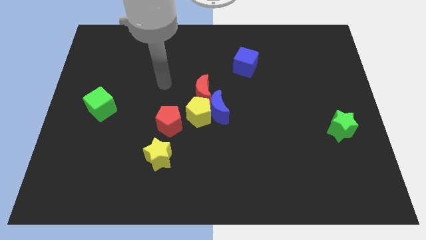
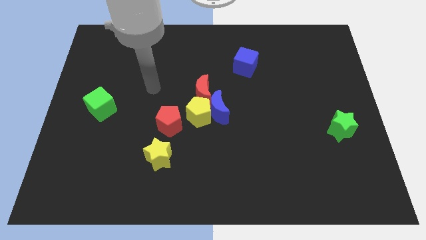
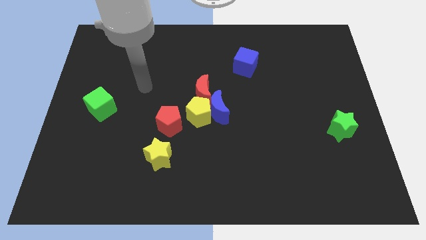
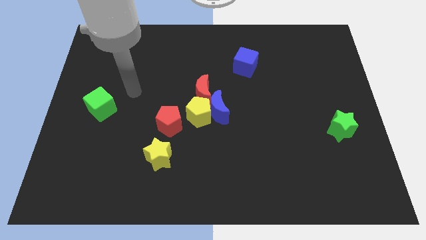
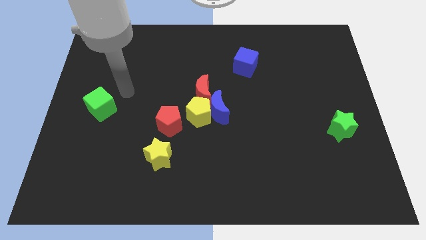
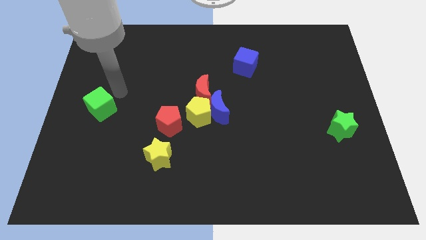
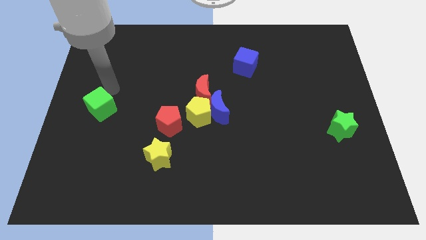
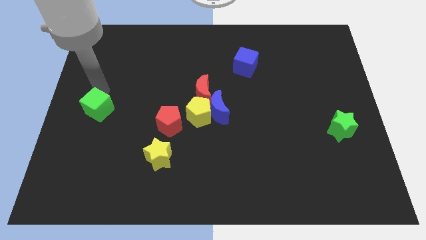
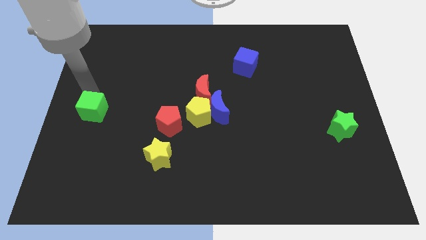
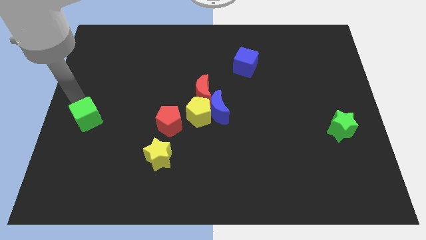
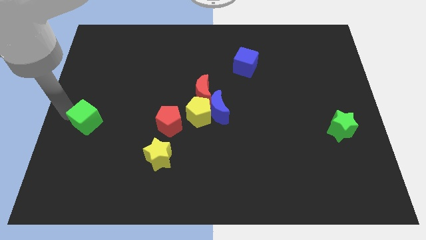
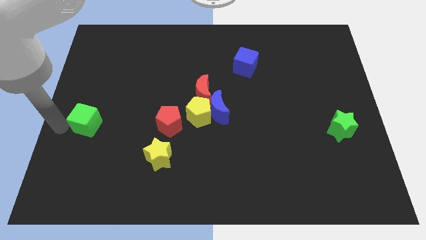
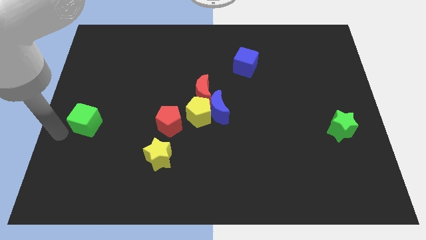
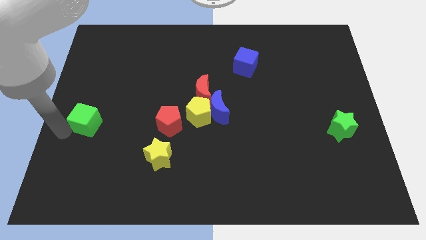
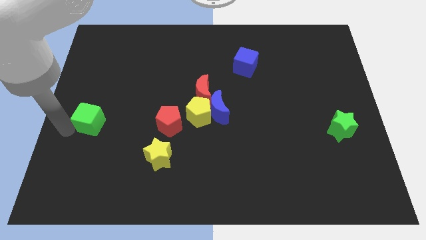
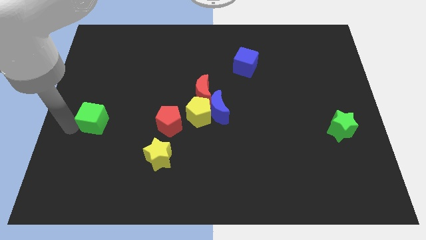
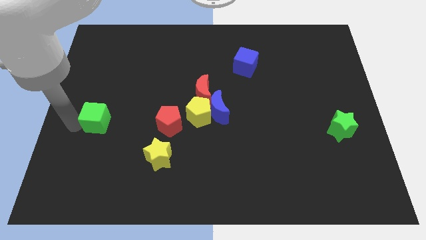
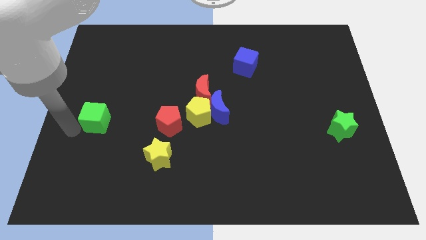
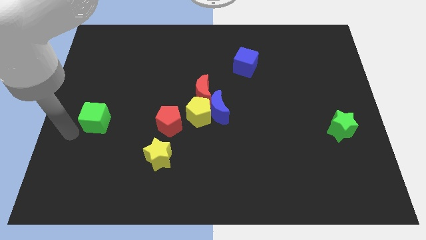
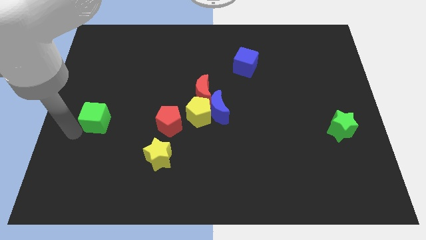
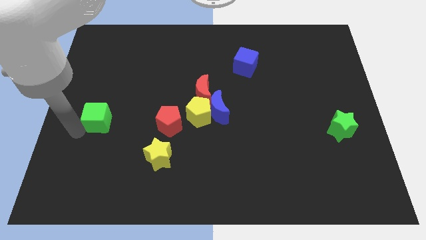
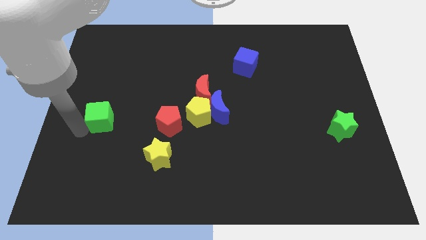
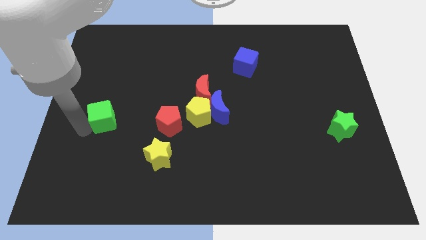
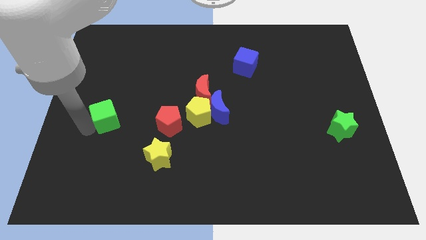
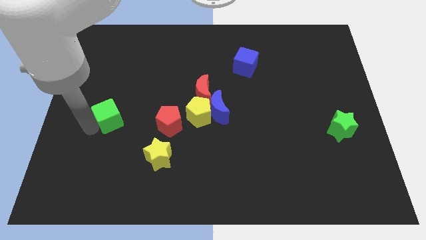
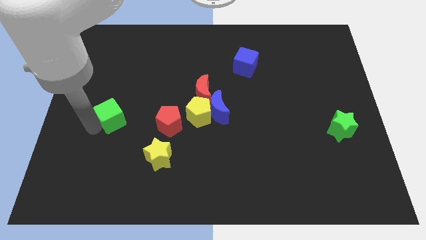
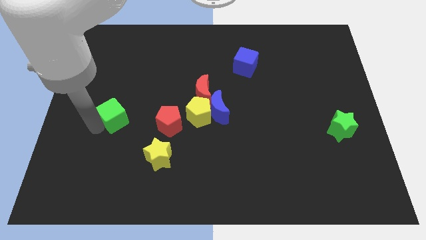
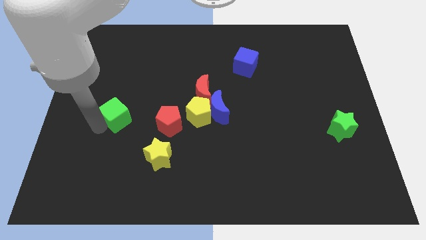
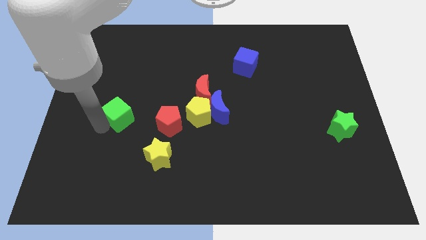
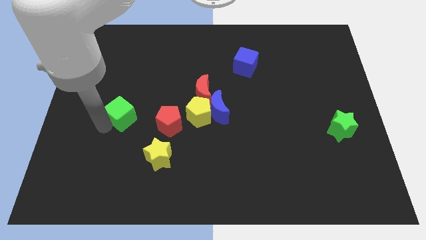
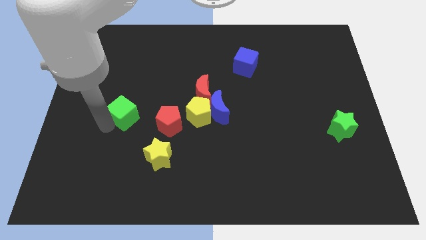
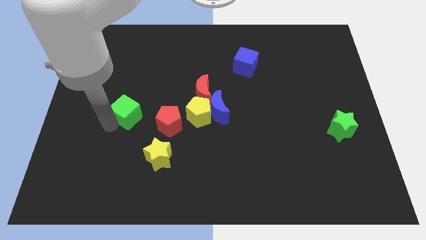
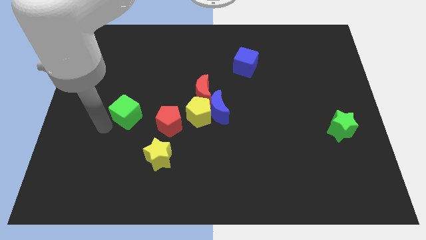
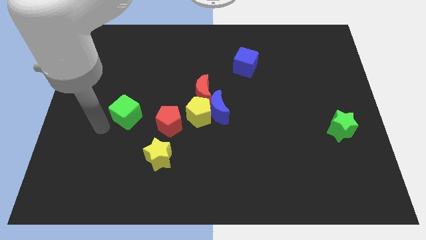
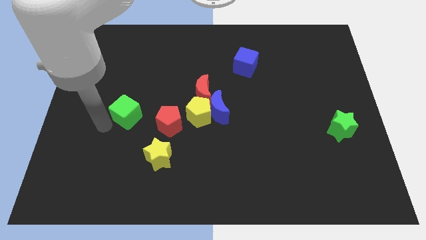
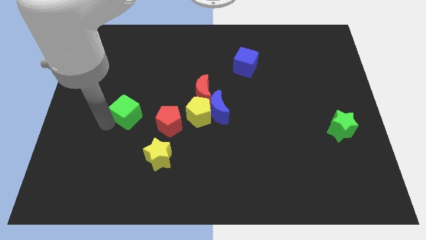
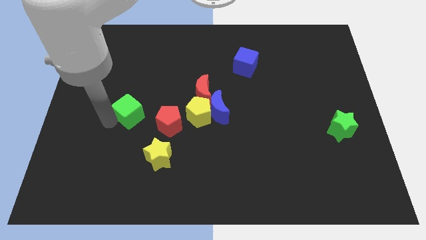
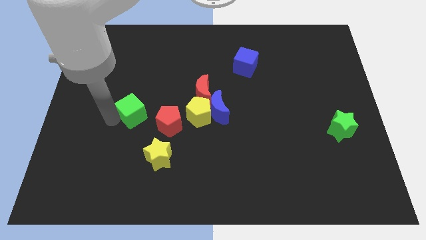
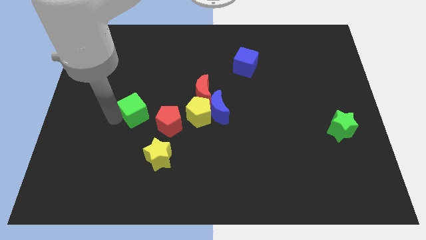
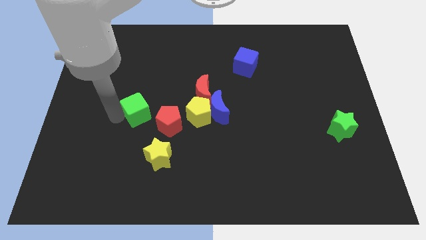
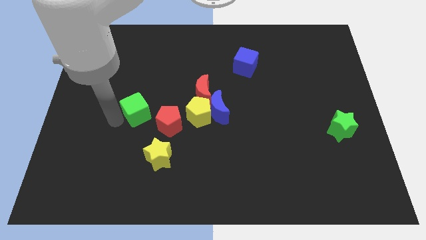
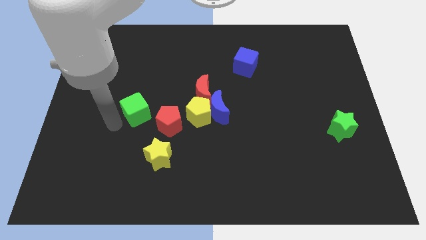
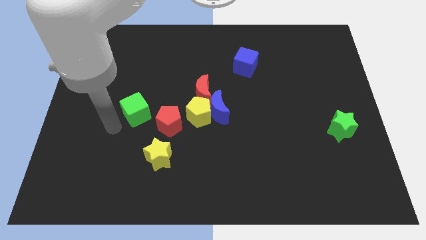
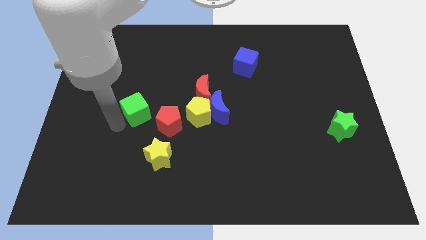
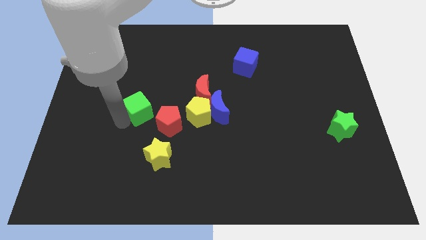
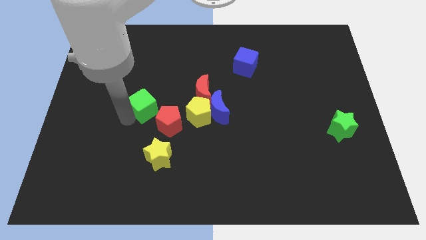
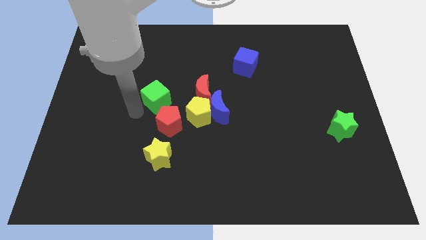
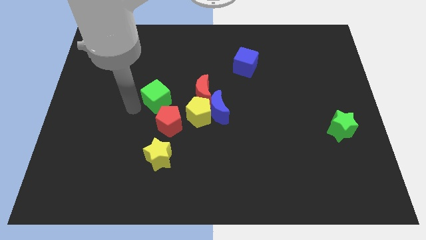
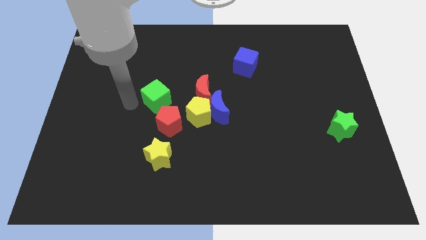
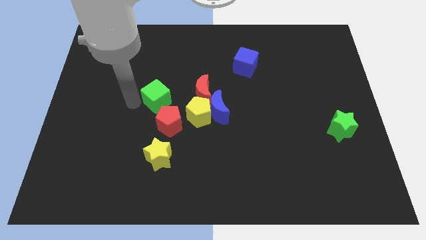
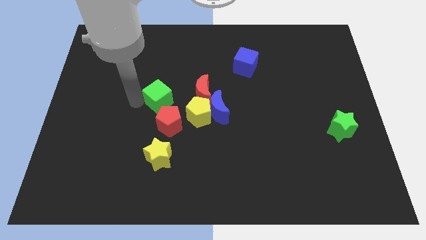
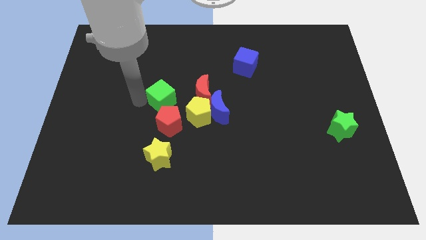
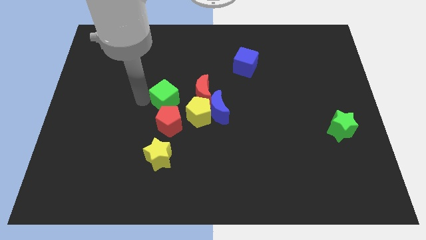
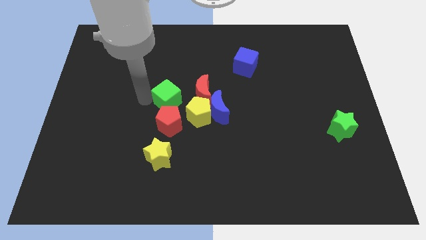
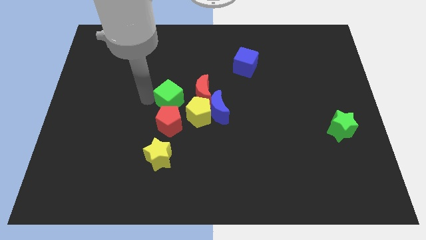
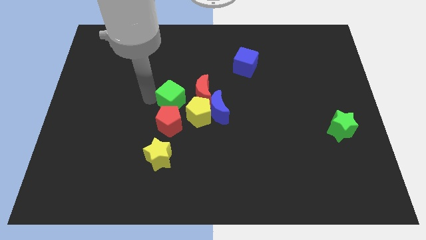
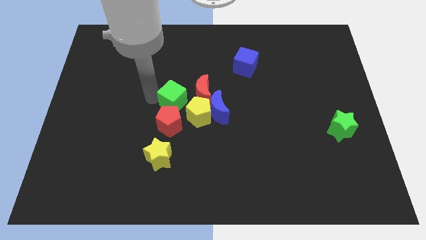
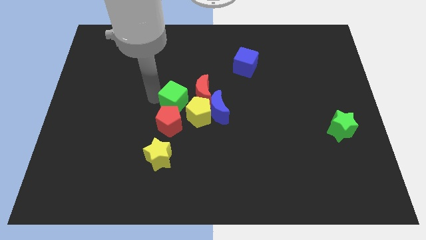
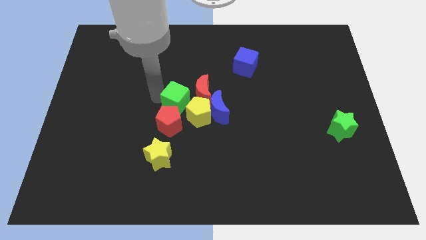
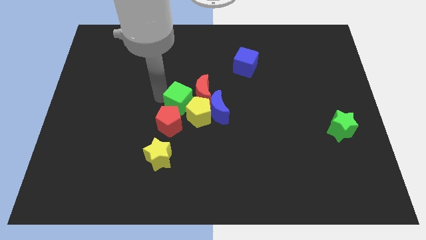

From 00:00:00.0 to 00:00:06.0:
slide the green cube next to the red moon

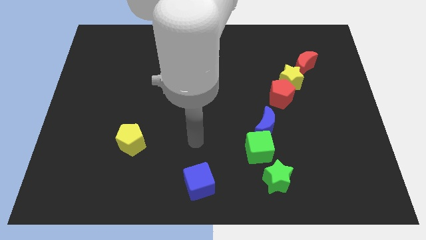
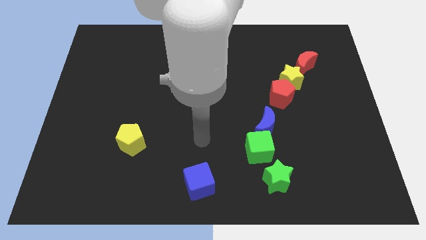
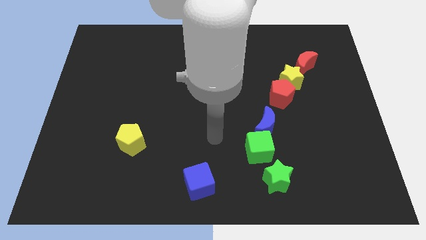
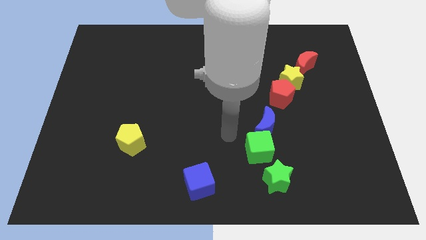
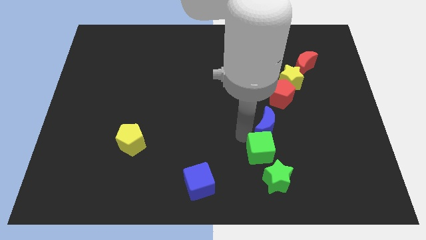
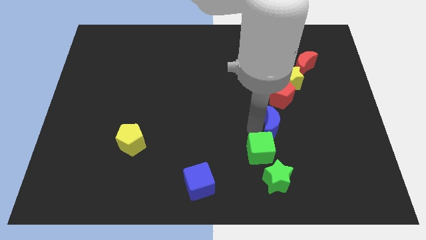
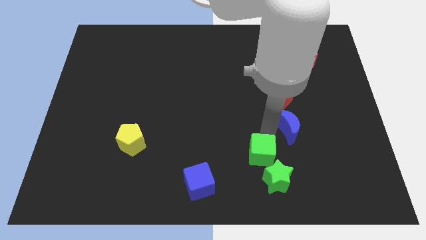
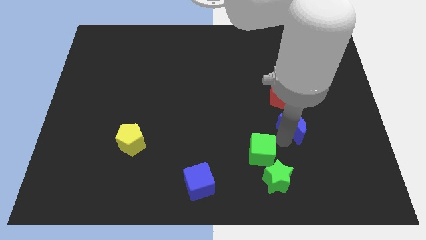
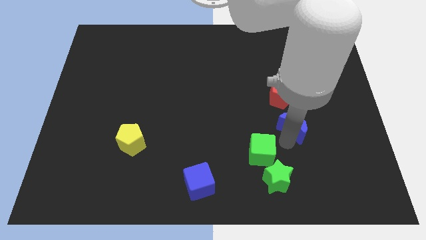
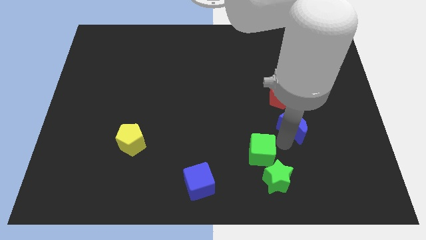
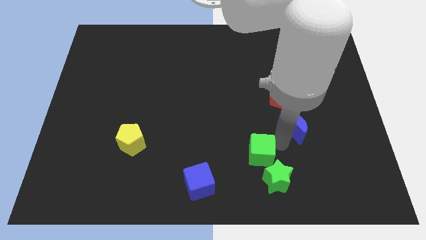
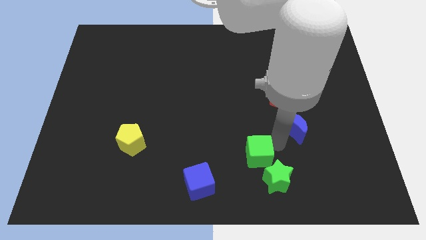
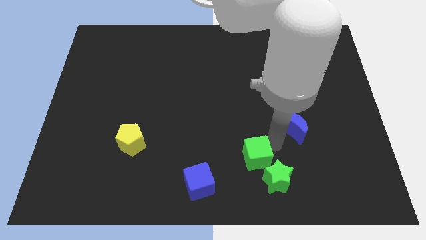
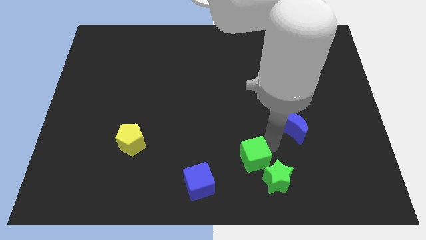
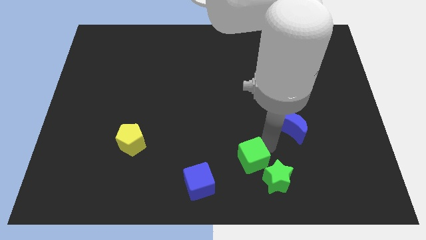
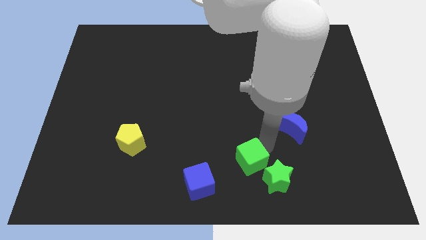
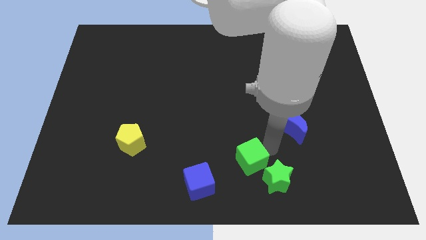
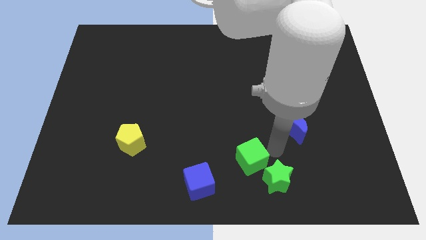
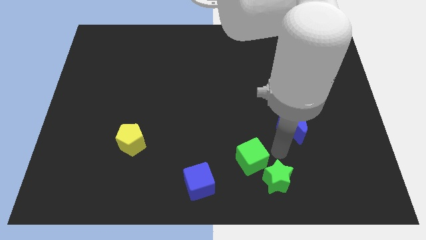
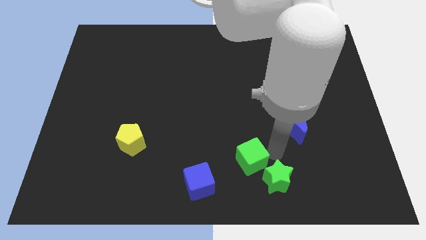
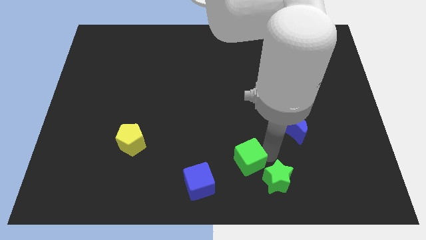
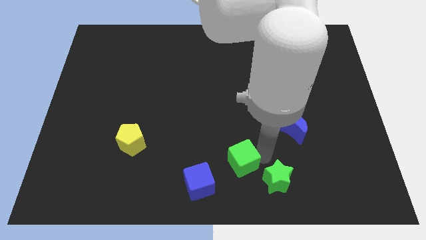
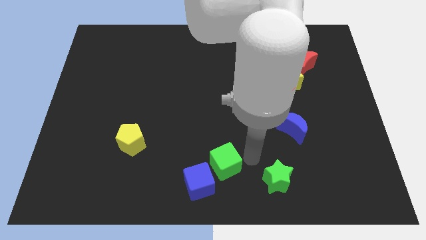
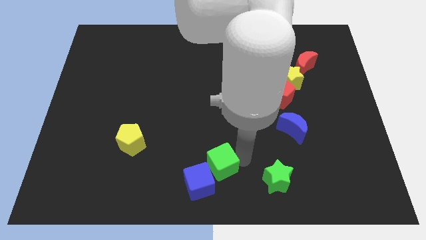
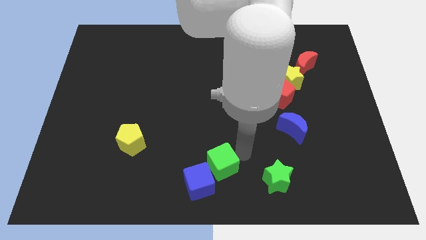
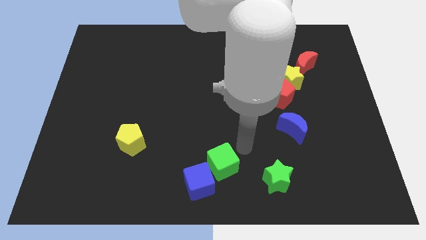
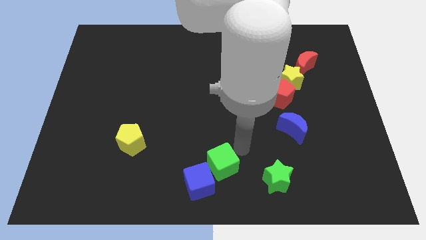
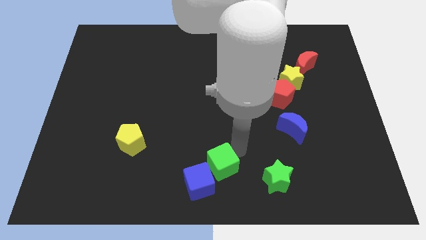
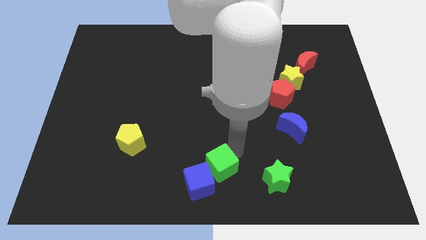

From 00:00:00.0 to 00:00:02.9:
put the green cube next to the blue cube
